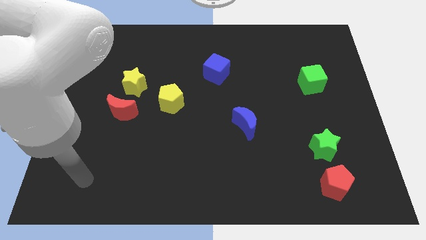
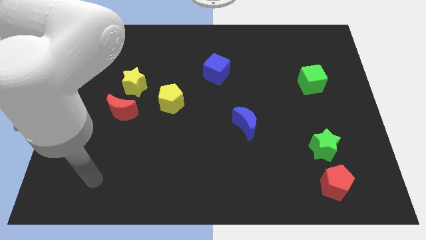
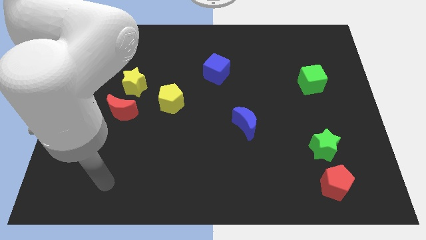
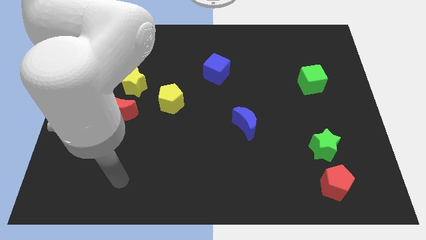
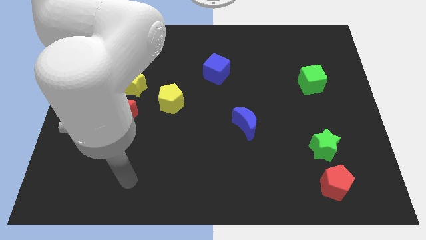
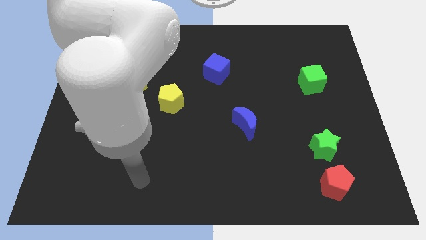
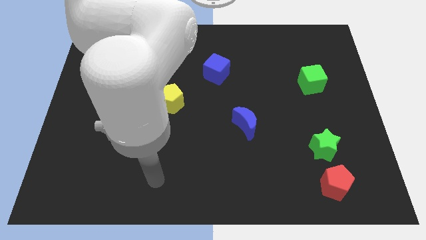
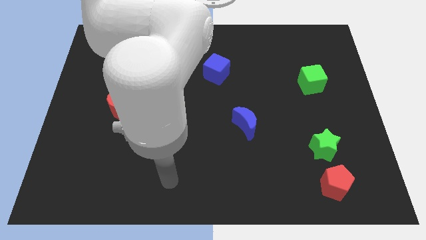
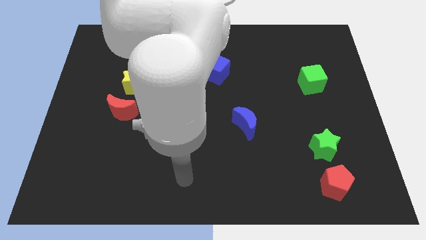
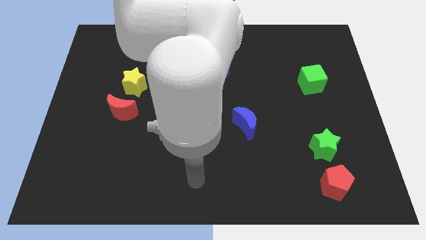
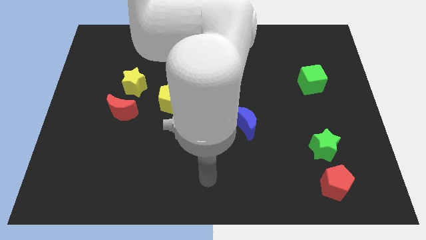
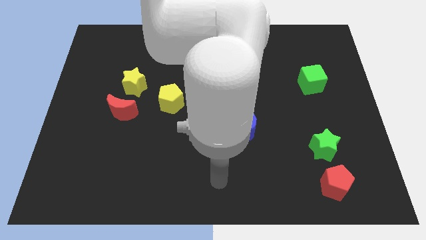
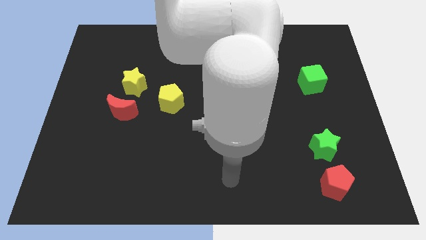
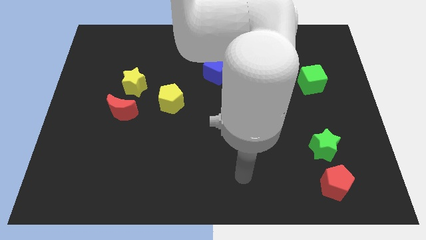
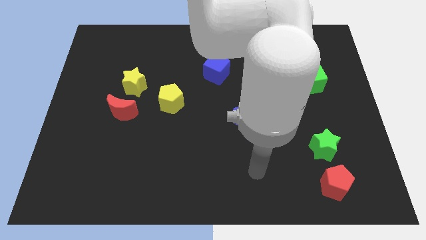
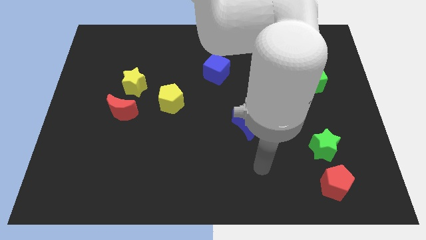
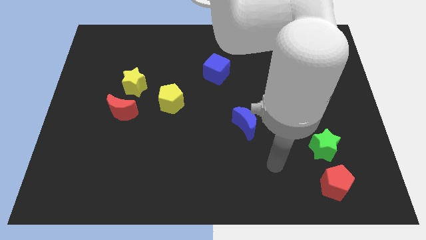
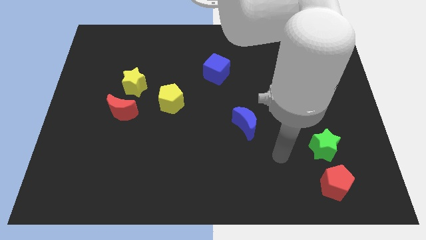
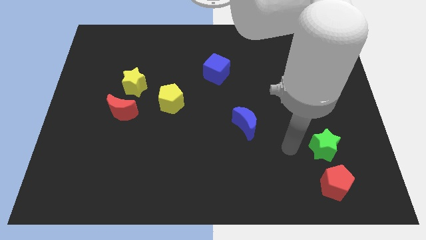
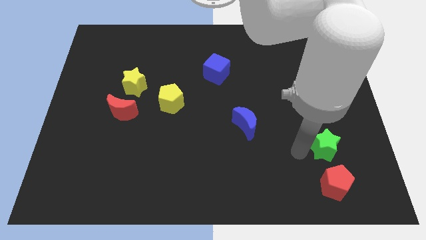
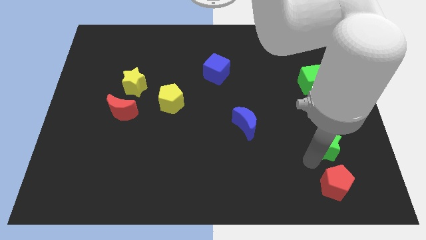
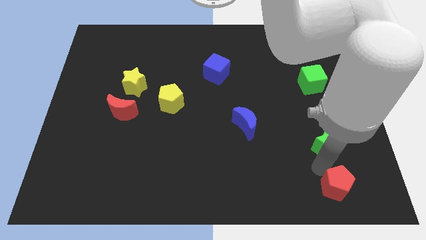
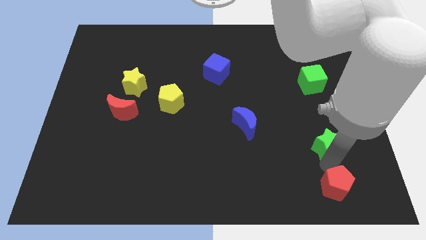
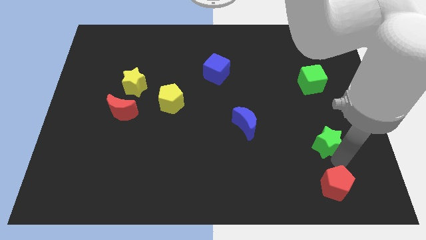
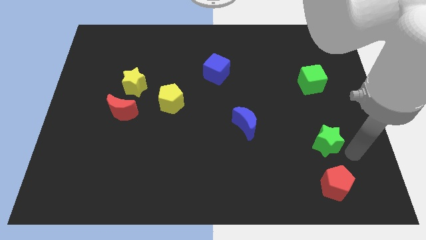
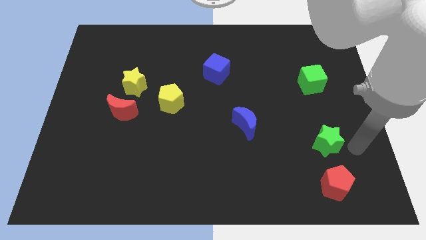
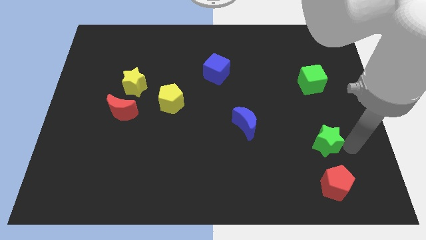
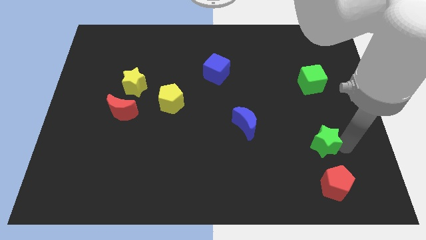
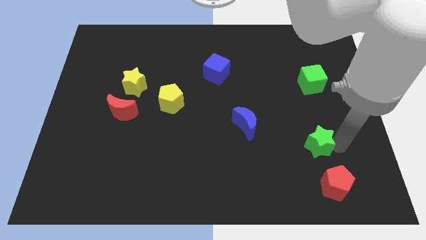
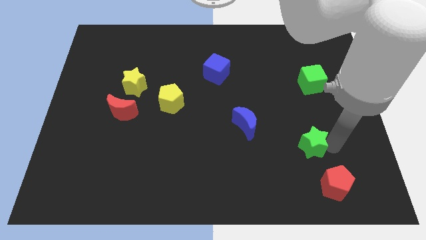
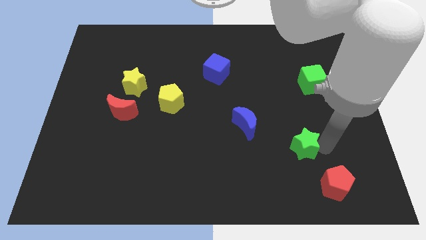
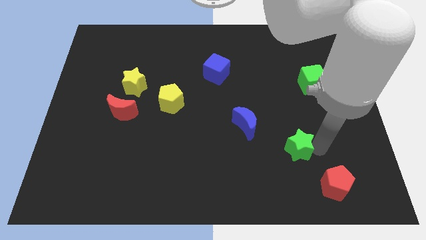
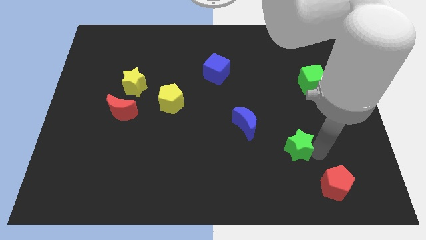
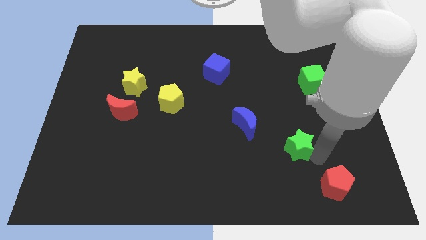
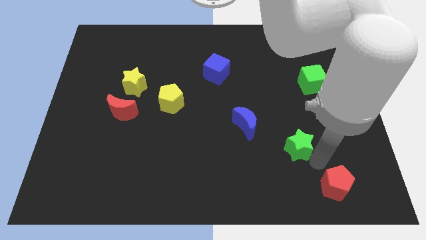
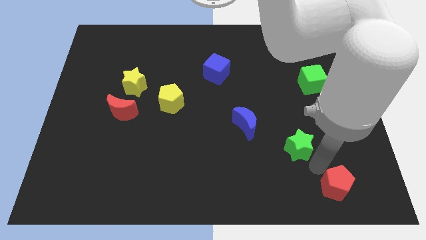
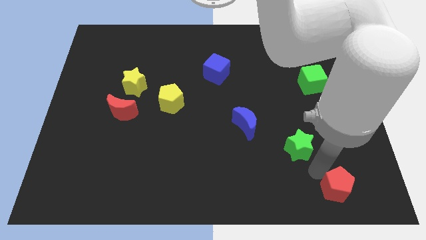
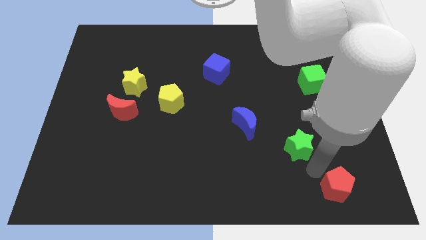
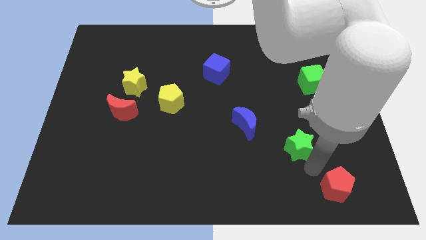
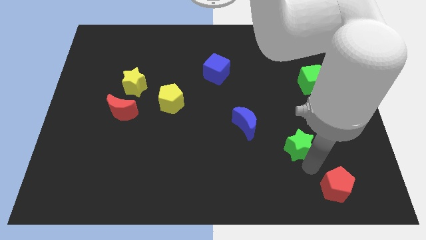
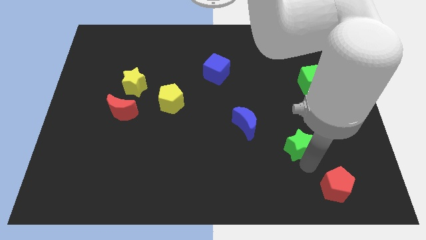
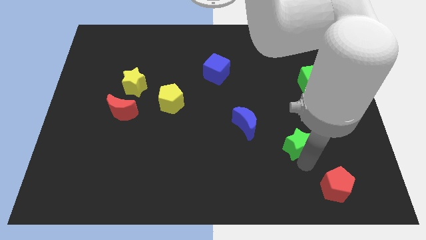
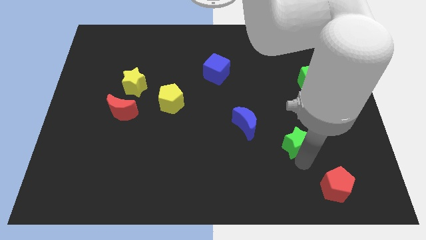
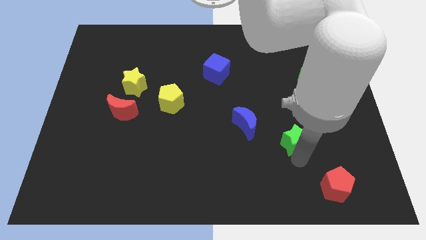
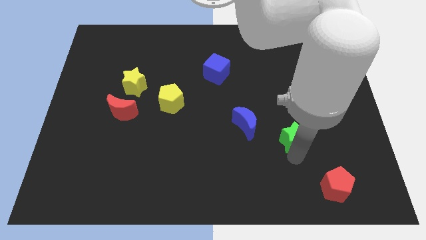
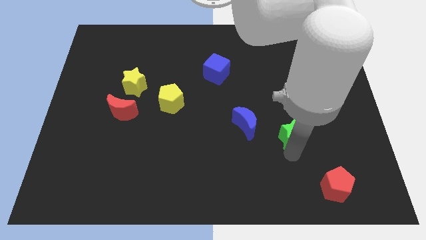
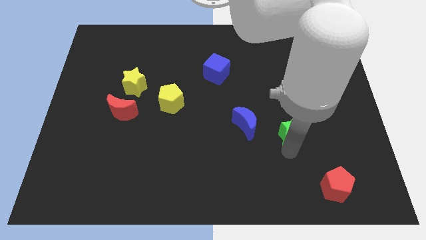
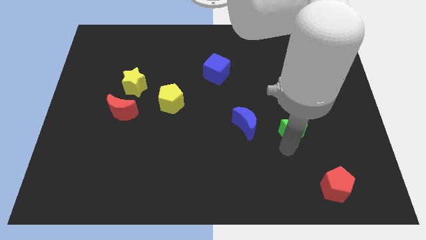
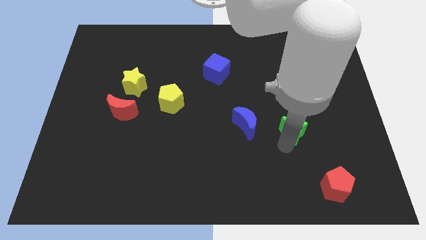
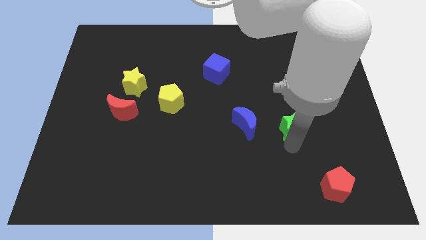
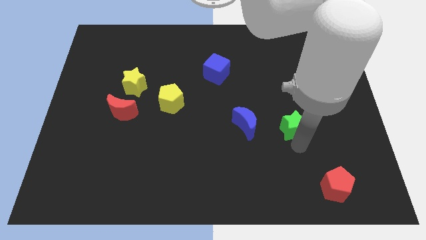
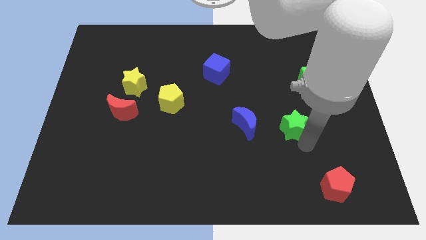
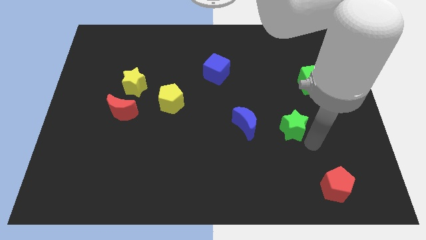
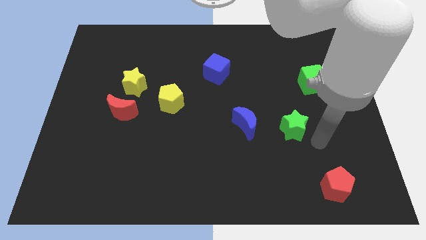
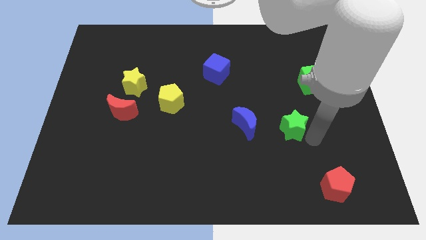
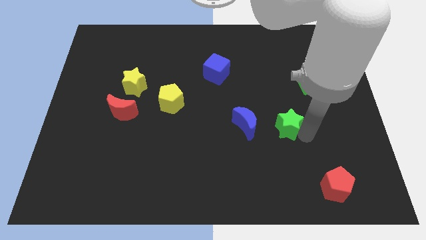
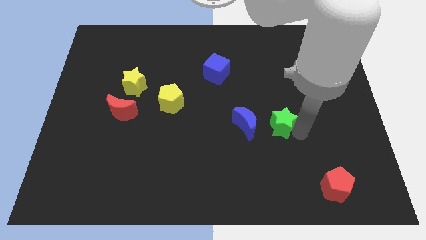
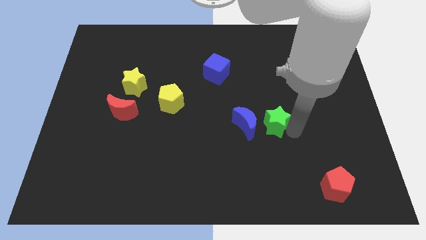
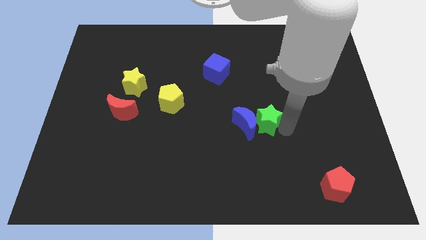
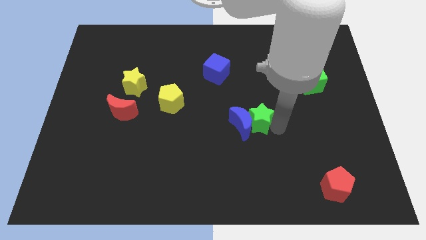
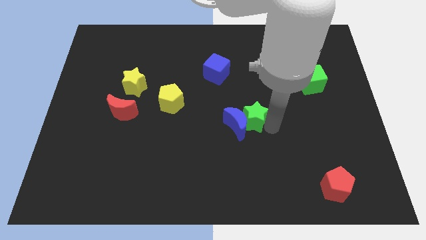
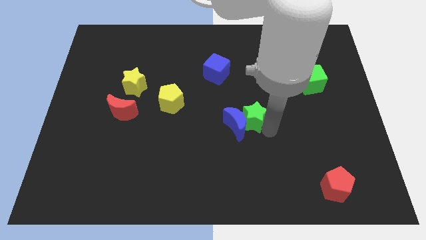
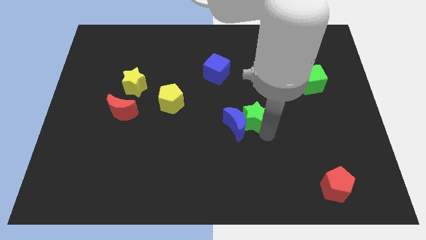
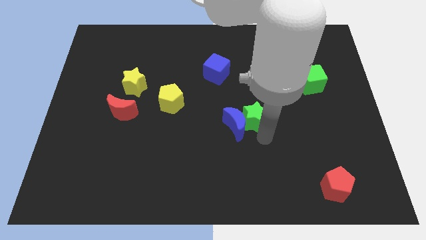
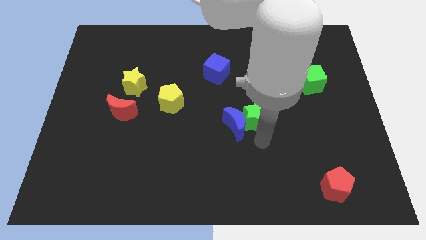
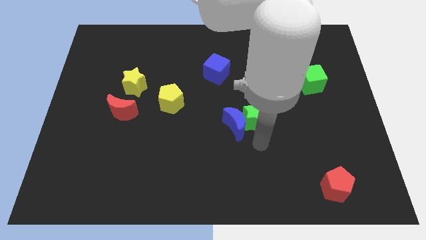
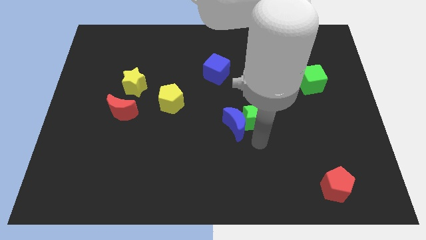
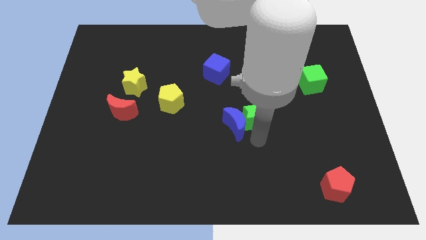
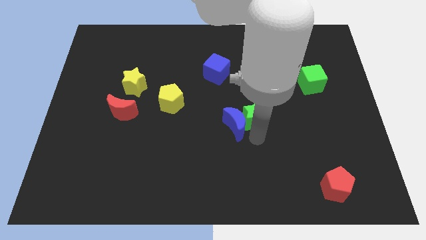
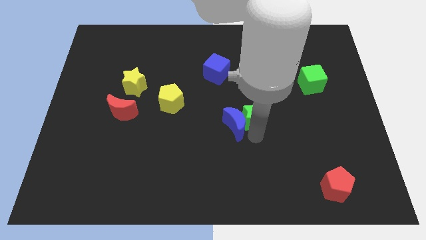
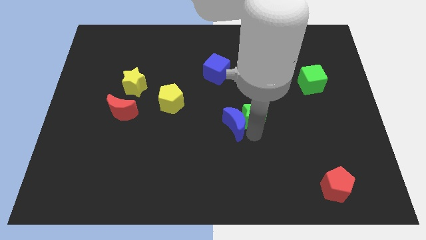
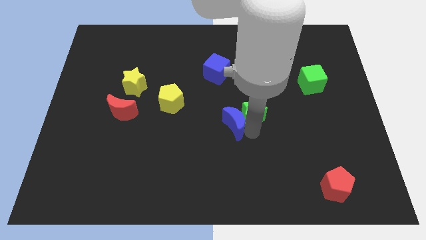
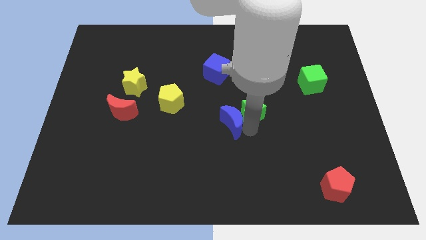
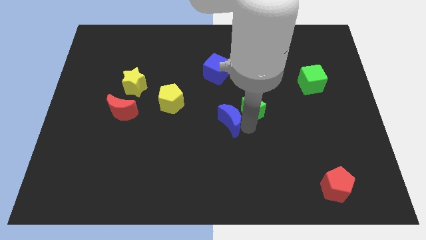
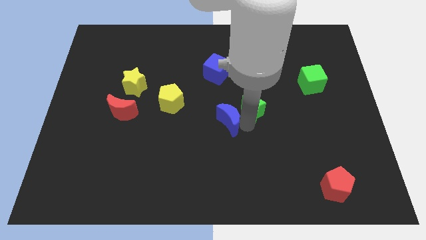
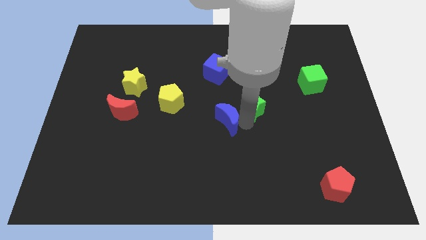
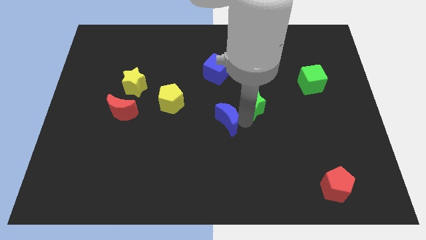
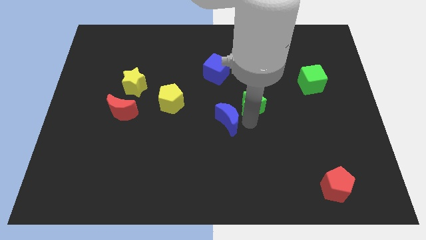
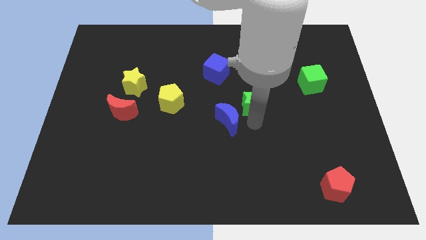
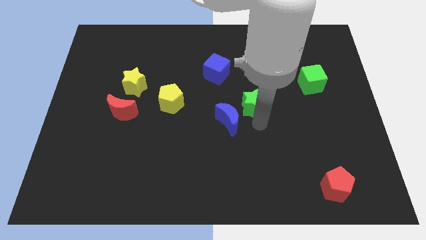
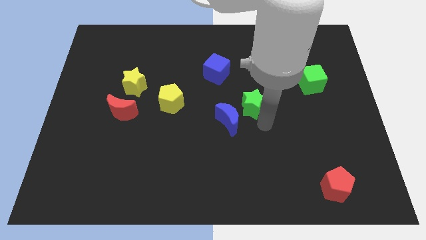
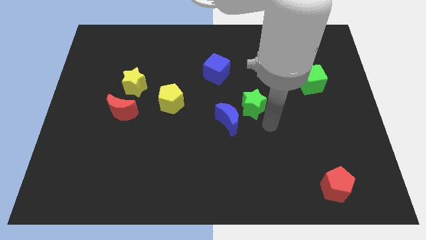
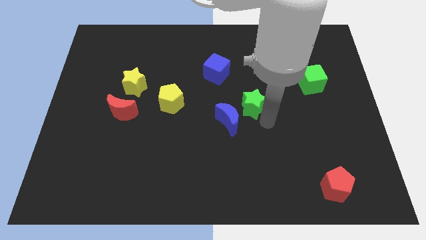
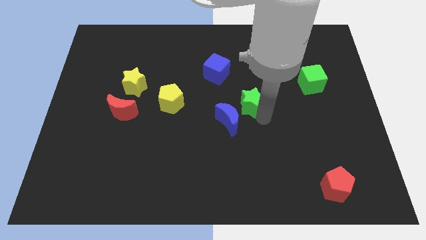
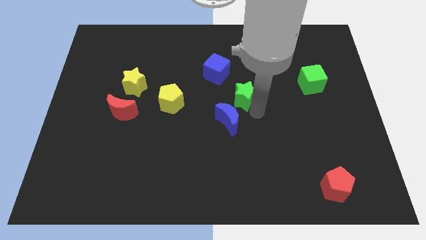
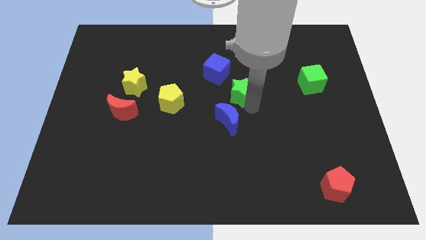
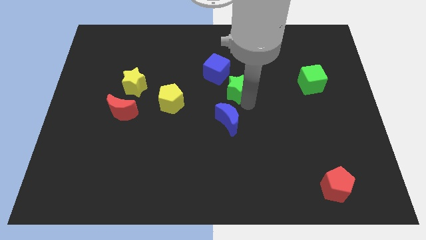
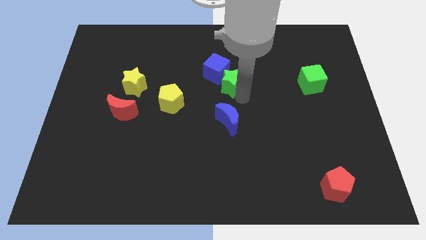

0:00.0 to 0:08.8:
put the green star close to the blue cube
